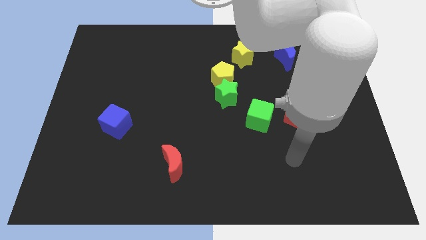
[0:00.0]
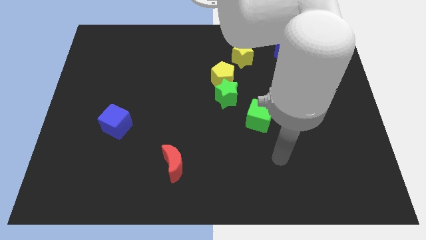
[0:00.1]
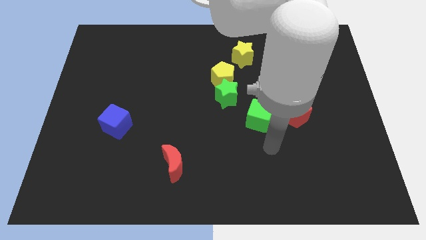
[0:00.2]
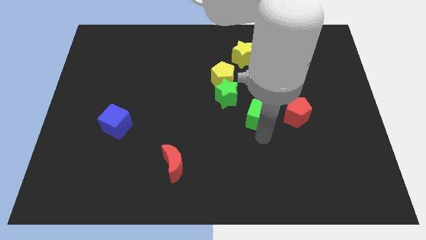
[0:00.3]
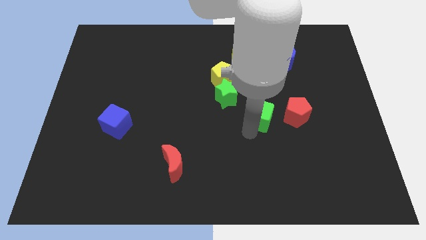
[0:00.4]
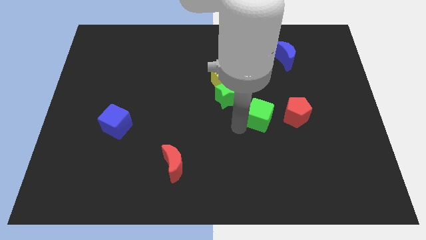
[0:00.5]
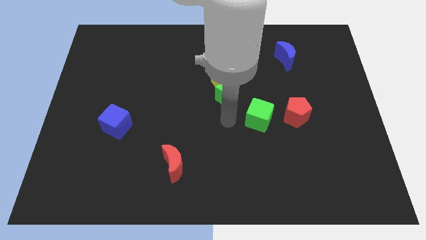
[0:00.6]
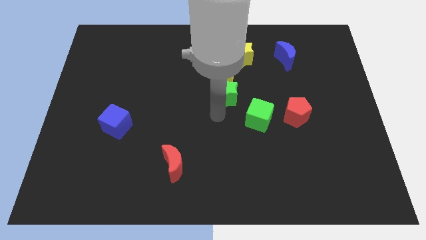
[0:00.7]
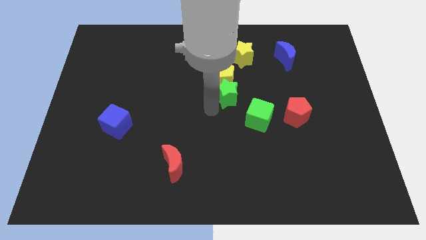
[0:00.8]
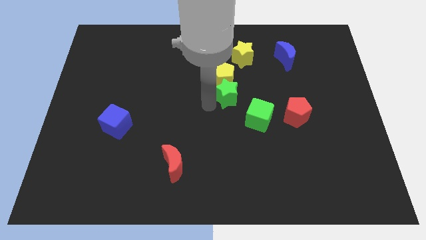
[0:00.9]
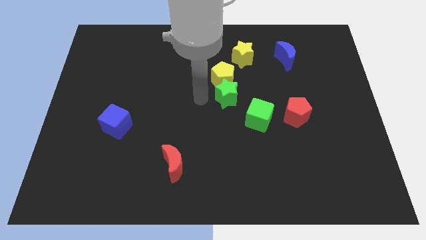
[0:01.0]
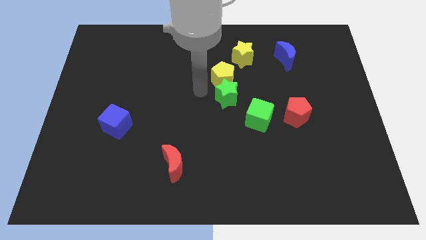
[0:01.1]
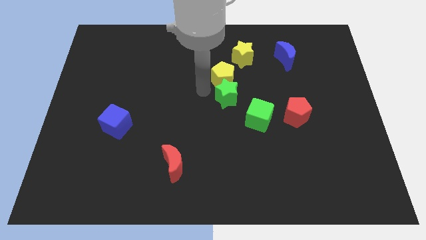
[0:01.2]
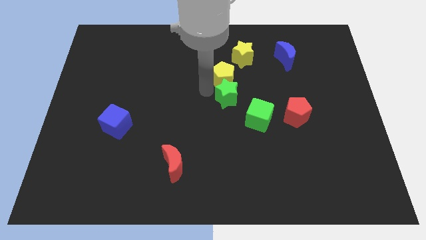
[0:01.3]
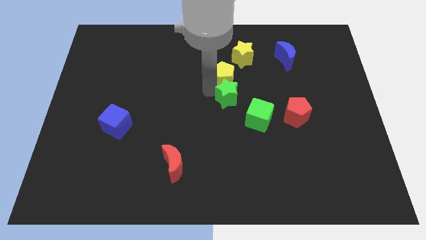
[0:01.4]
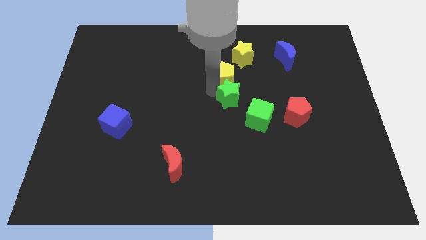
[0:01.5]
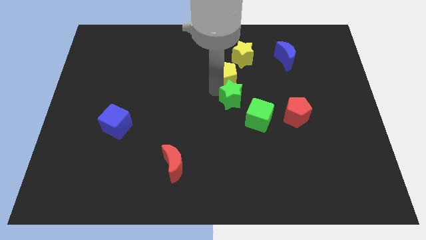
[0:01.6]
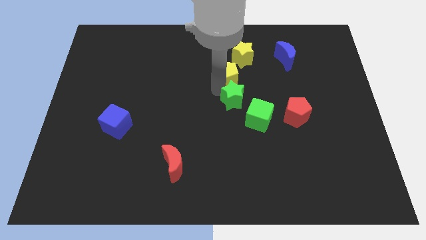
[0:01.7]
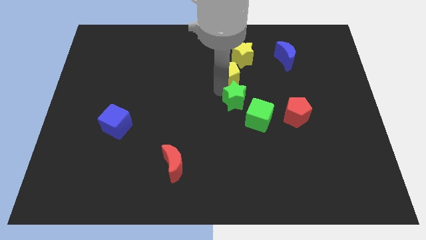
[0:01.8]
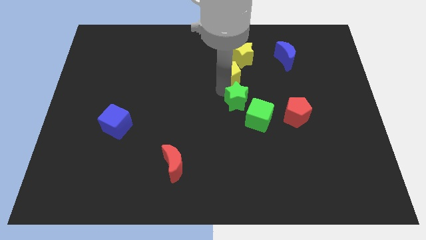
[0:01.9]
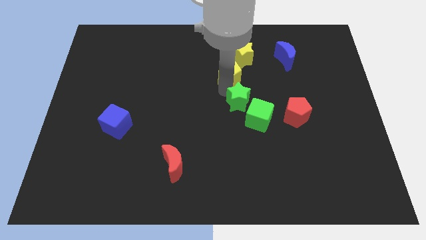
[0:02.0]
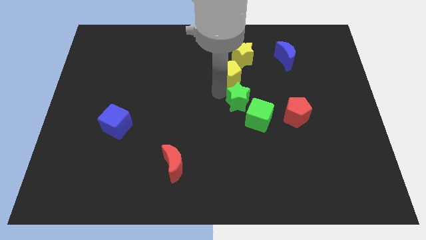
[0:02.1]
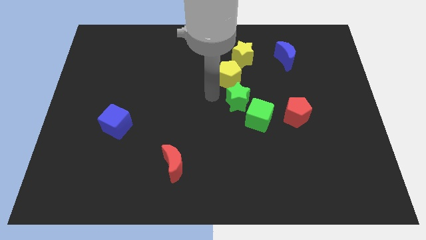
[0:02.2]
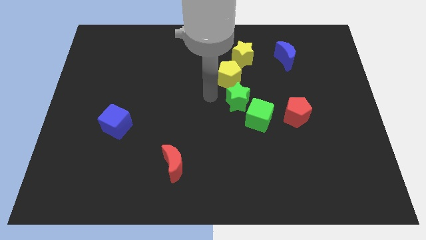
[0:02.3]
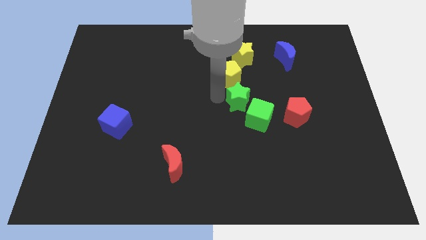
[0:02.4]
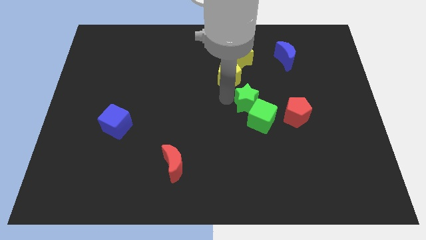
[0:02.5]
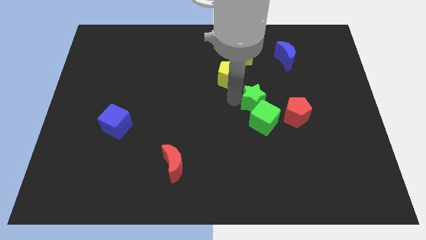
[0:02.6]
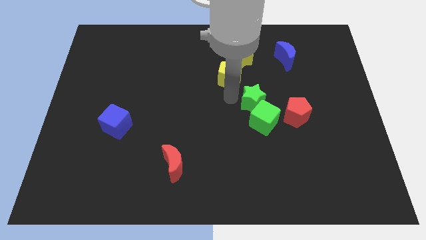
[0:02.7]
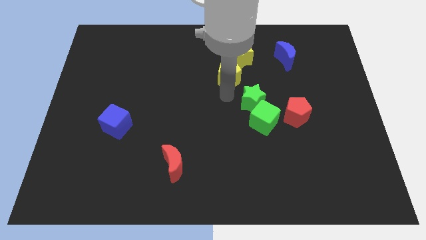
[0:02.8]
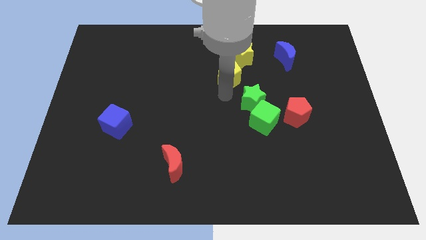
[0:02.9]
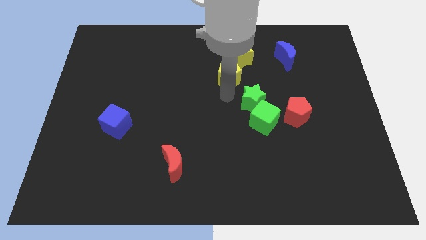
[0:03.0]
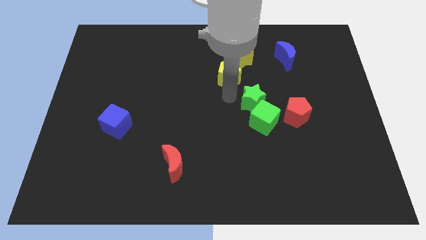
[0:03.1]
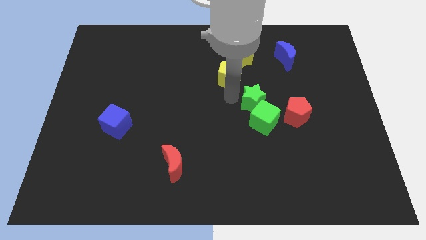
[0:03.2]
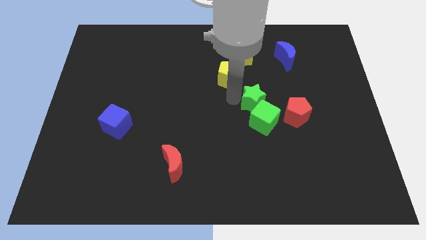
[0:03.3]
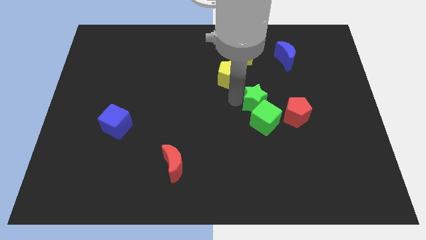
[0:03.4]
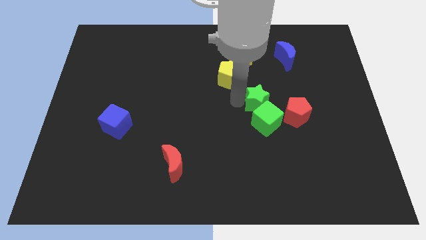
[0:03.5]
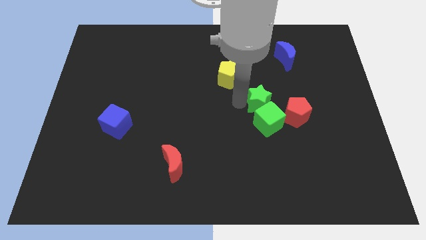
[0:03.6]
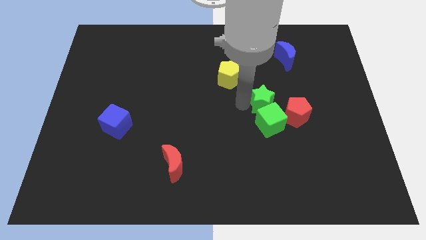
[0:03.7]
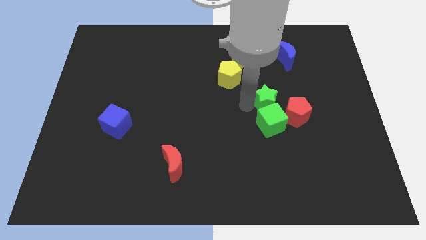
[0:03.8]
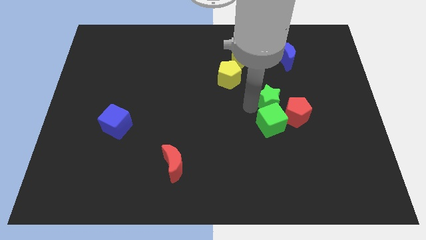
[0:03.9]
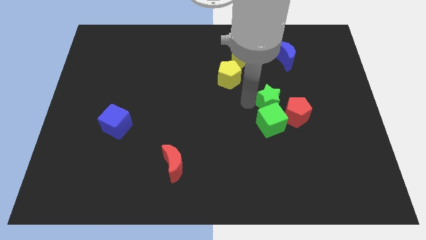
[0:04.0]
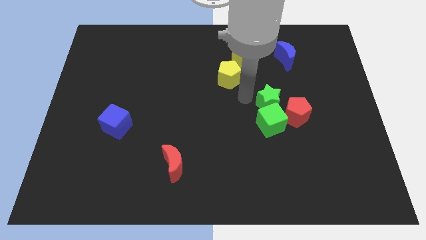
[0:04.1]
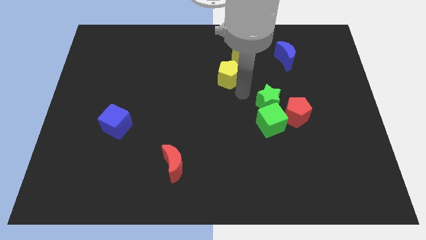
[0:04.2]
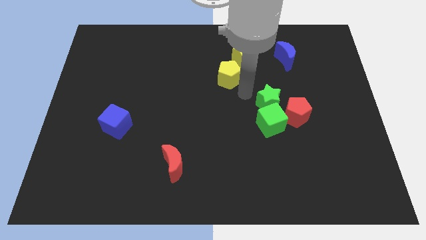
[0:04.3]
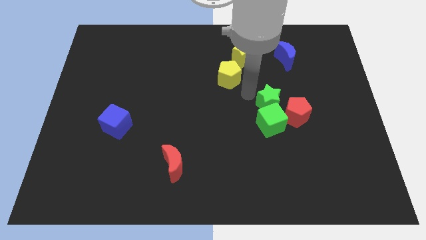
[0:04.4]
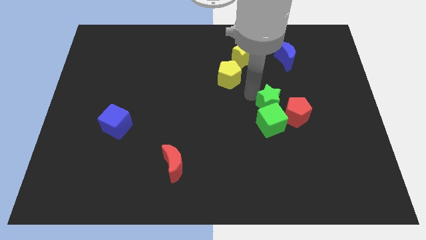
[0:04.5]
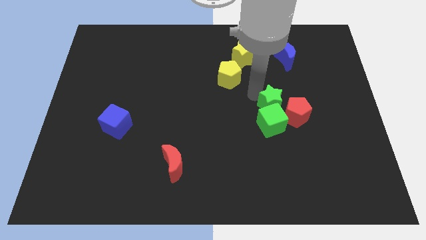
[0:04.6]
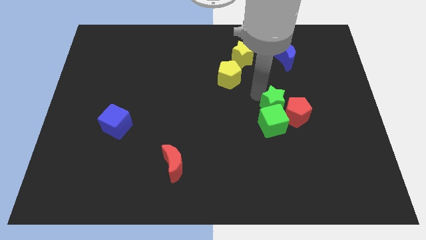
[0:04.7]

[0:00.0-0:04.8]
push the green star next to the red pentagon

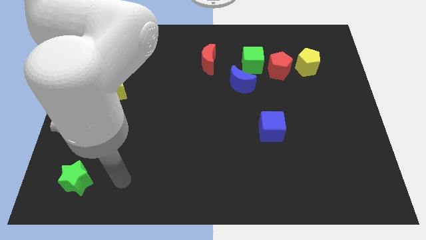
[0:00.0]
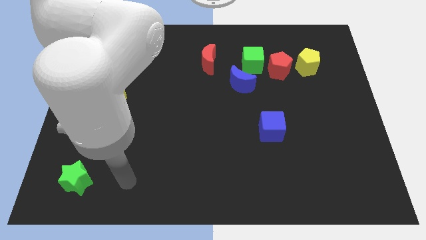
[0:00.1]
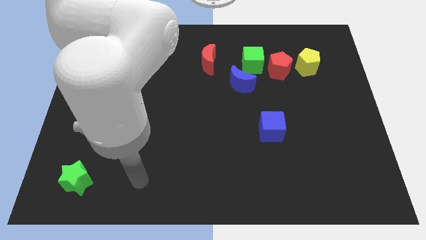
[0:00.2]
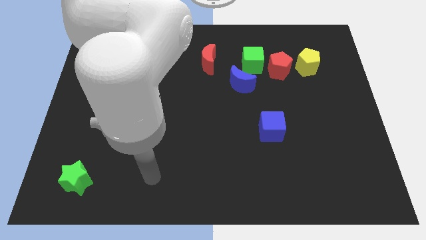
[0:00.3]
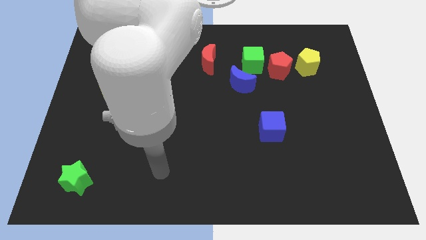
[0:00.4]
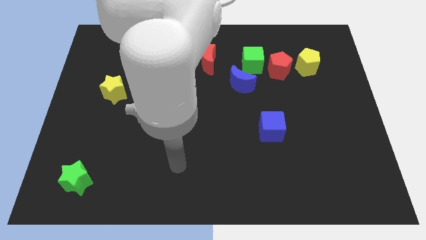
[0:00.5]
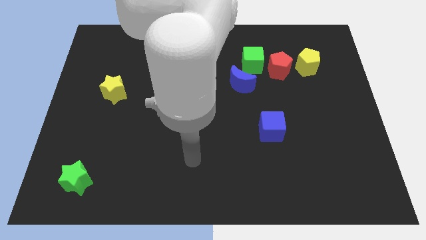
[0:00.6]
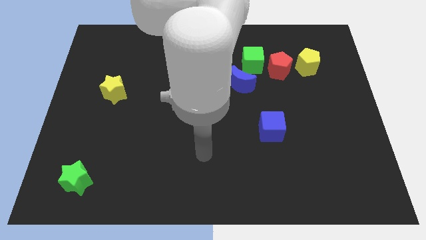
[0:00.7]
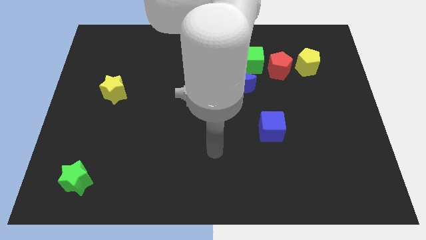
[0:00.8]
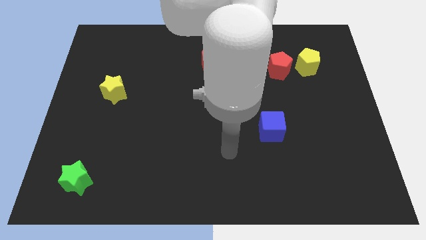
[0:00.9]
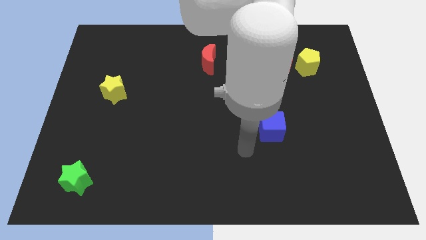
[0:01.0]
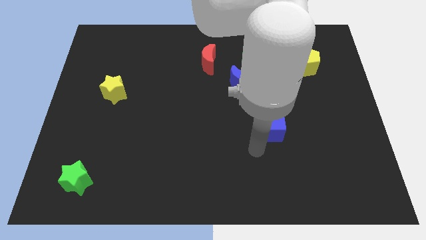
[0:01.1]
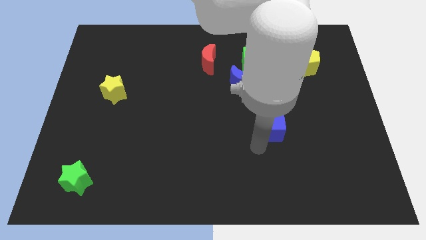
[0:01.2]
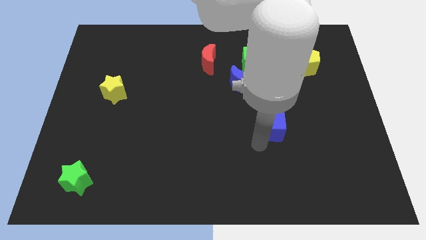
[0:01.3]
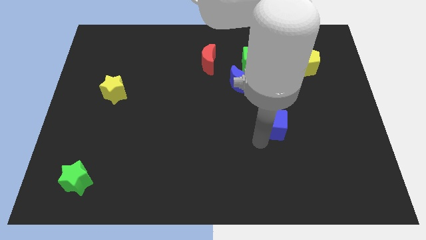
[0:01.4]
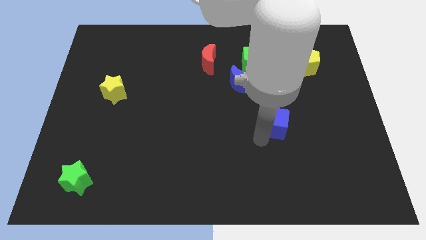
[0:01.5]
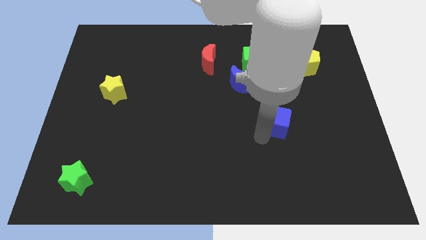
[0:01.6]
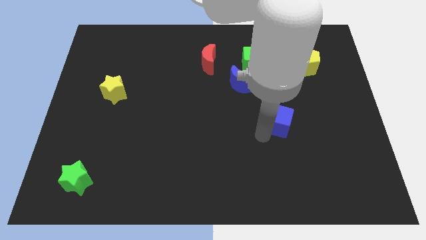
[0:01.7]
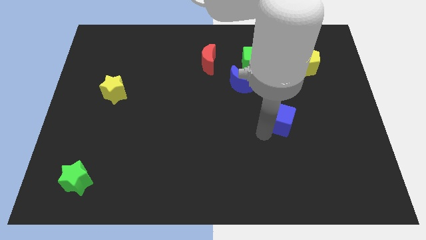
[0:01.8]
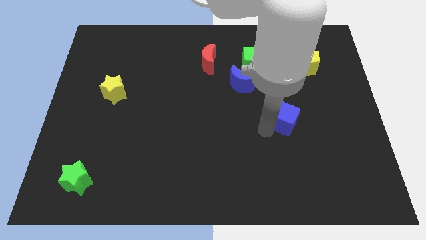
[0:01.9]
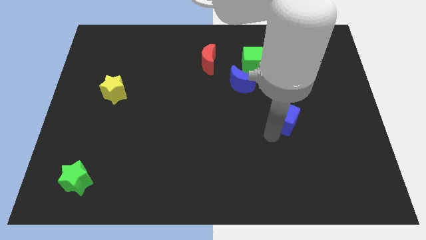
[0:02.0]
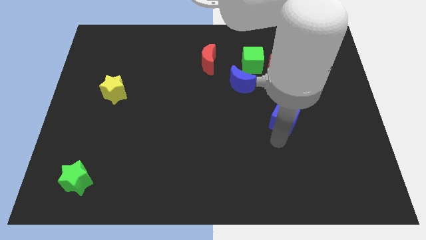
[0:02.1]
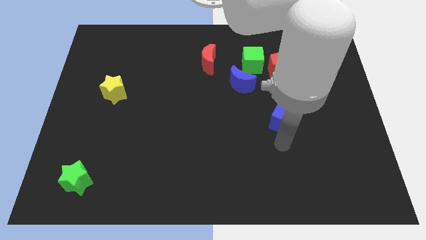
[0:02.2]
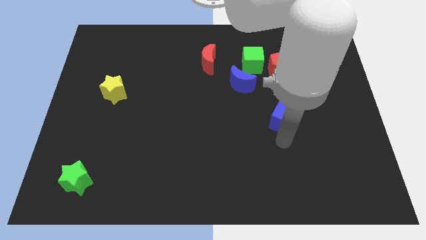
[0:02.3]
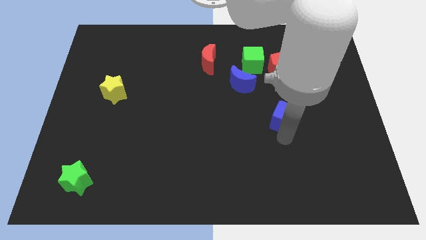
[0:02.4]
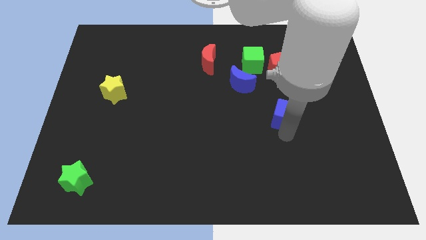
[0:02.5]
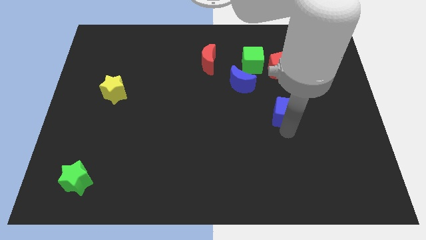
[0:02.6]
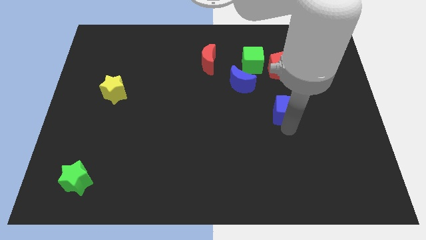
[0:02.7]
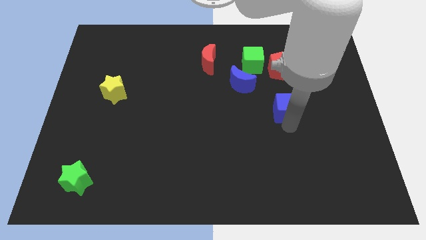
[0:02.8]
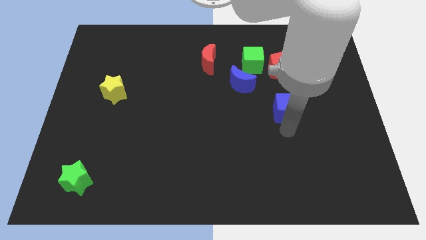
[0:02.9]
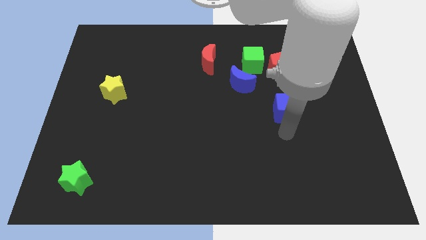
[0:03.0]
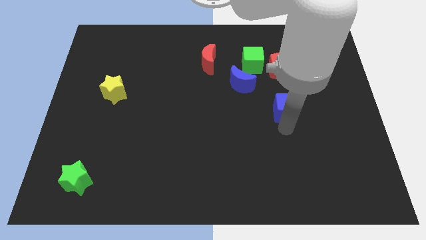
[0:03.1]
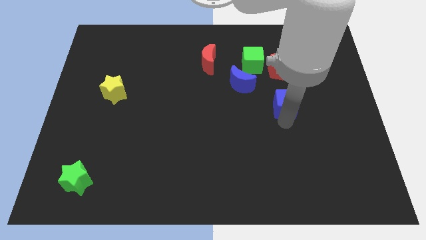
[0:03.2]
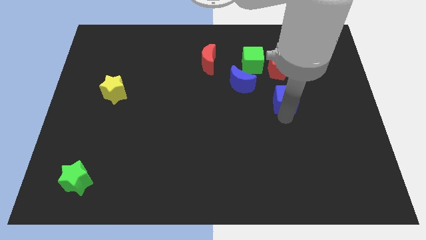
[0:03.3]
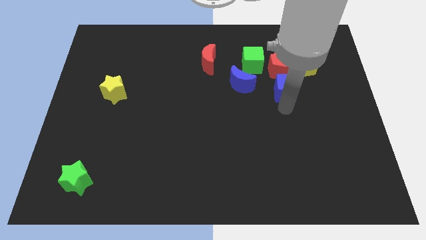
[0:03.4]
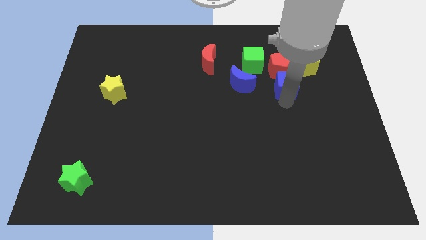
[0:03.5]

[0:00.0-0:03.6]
put the blue cube towards the red pentagon
